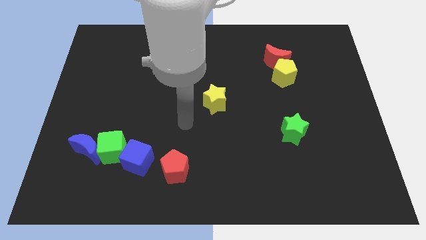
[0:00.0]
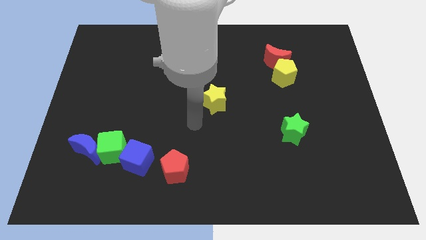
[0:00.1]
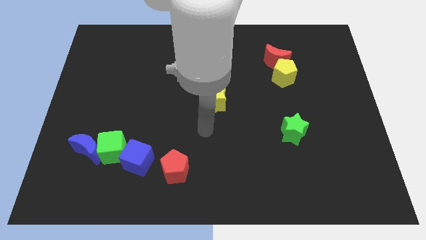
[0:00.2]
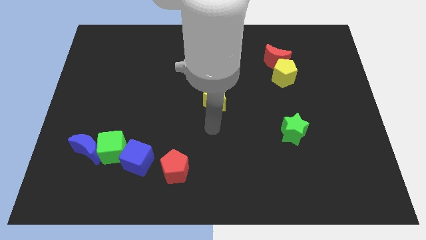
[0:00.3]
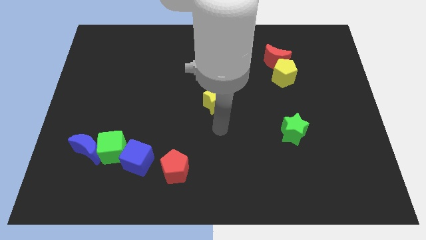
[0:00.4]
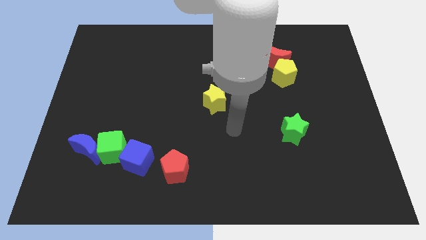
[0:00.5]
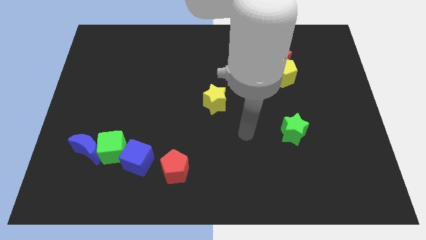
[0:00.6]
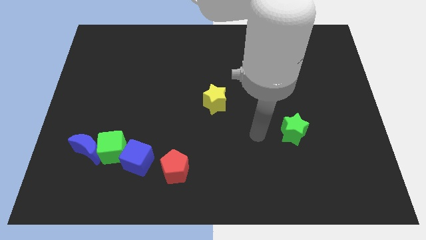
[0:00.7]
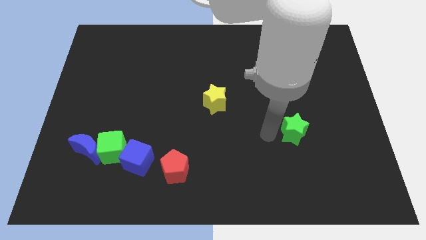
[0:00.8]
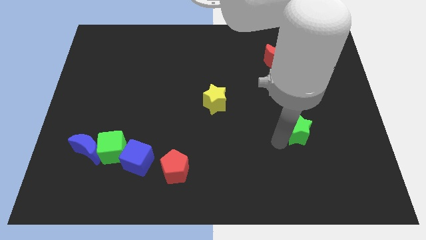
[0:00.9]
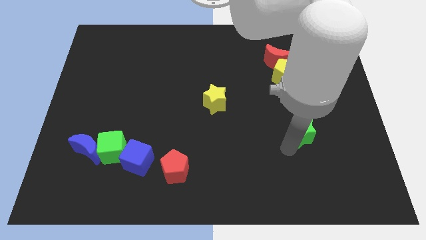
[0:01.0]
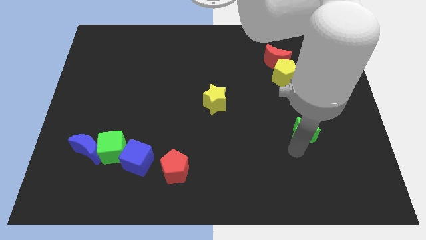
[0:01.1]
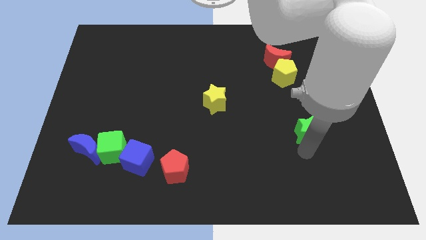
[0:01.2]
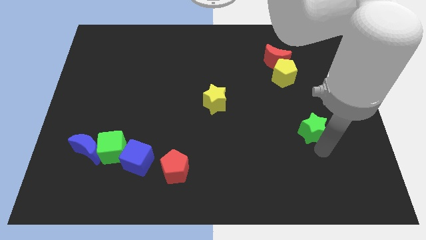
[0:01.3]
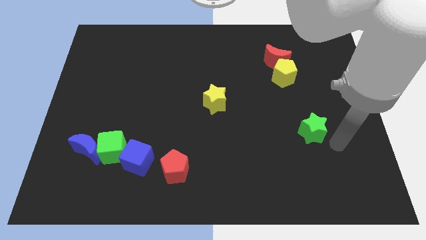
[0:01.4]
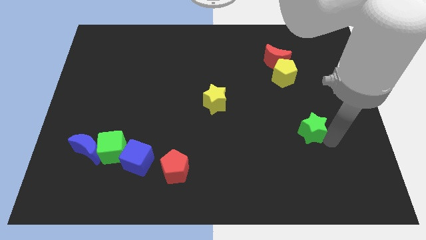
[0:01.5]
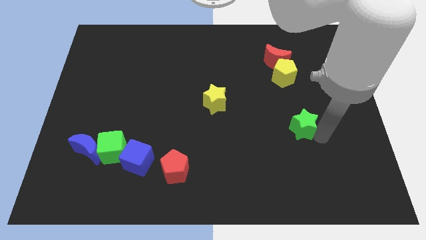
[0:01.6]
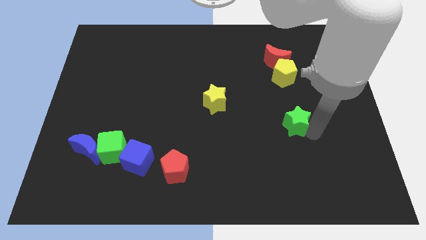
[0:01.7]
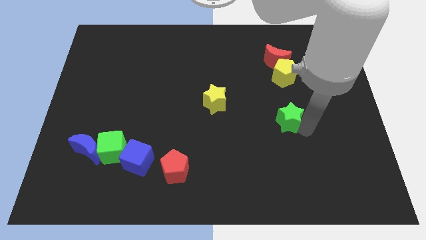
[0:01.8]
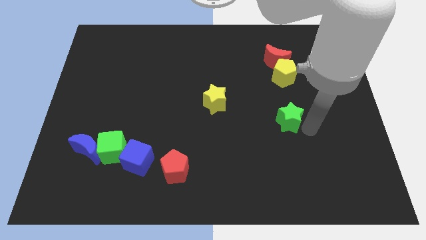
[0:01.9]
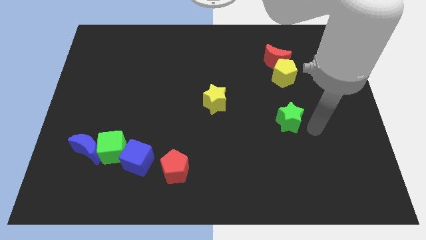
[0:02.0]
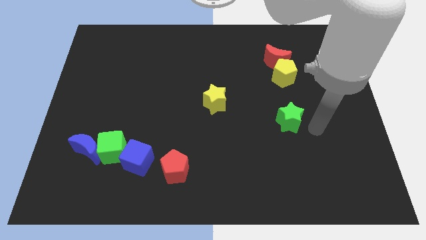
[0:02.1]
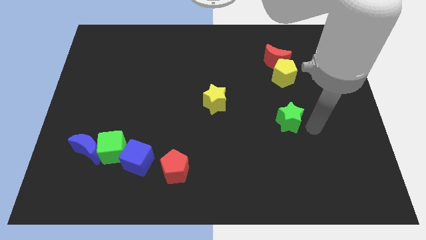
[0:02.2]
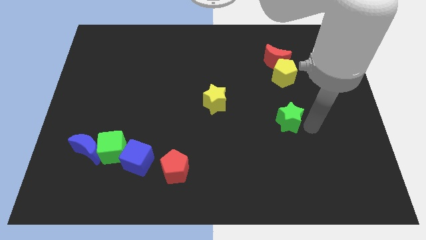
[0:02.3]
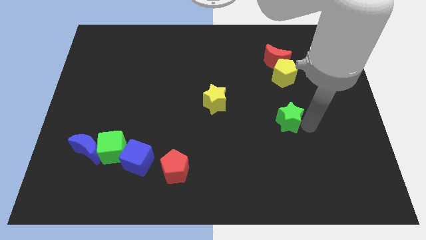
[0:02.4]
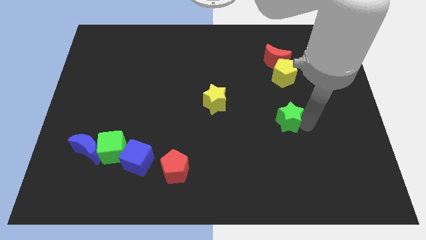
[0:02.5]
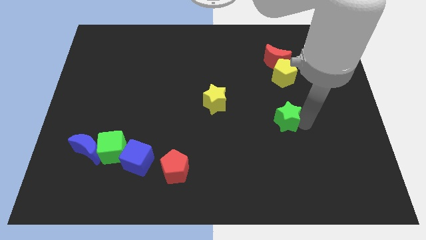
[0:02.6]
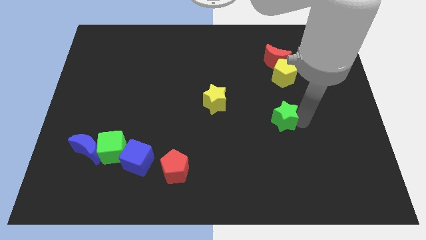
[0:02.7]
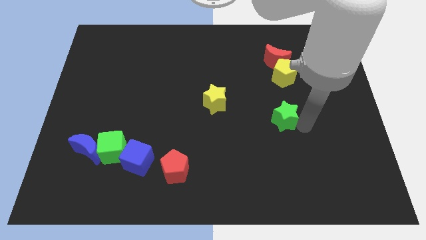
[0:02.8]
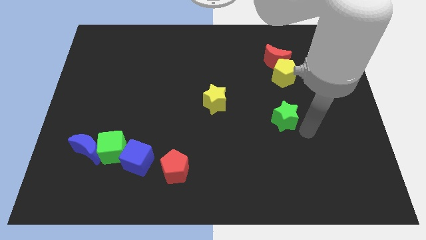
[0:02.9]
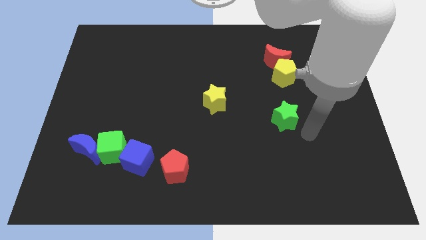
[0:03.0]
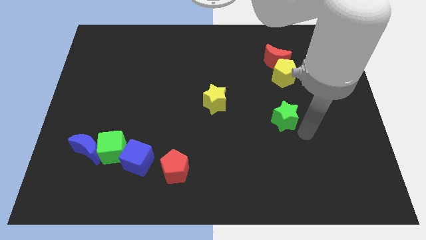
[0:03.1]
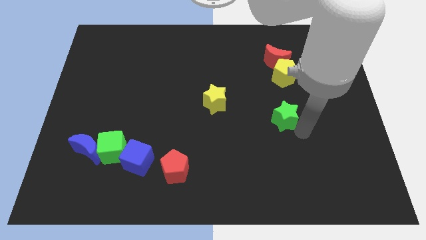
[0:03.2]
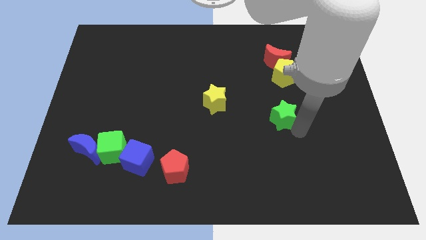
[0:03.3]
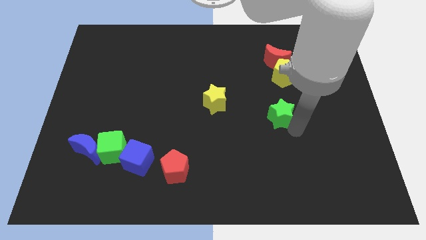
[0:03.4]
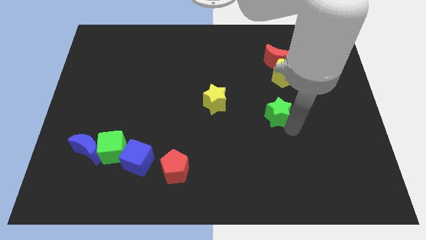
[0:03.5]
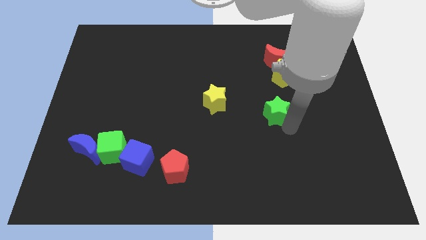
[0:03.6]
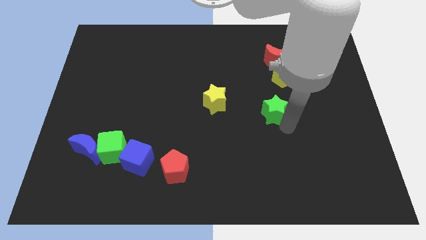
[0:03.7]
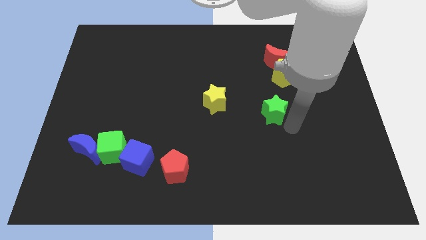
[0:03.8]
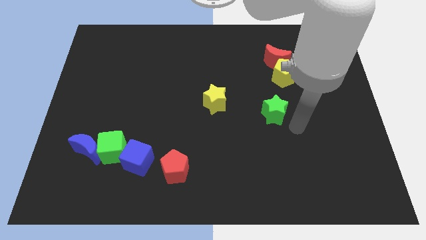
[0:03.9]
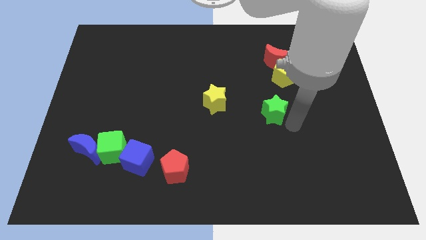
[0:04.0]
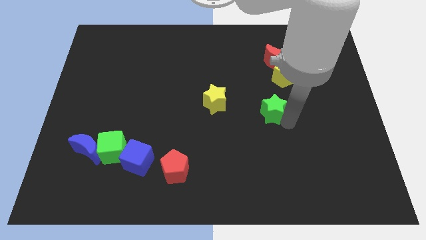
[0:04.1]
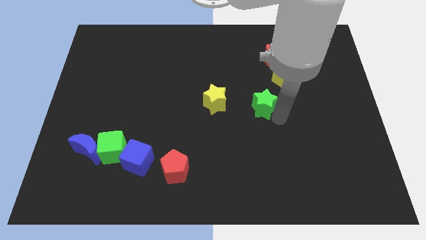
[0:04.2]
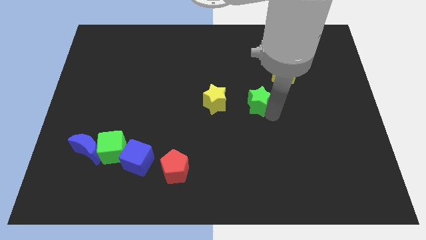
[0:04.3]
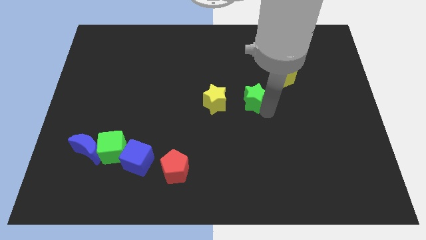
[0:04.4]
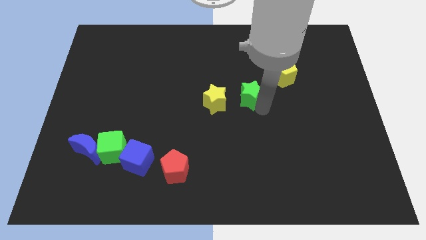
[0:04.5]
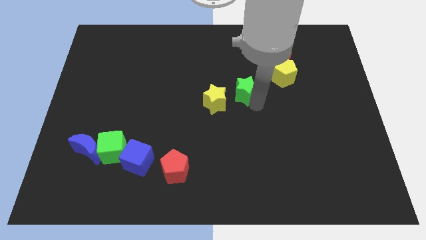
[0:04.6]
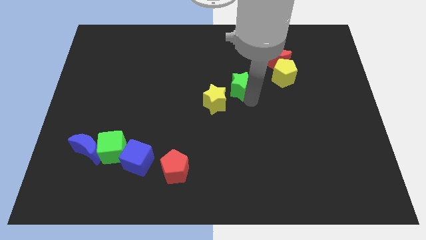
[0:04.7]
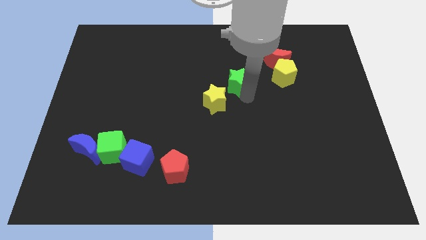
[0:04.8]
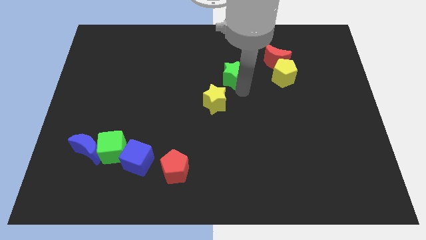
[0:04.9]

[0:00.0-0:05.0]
push the green star upwards and then to the left

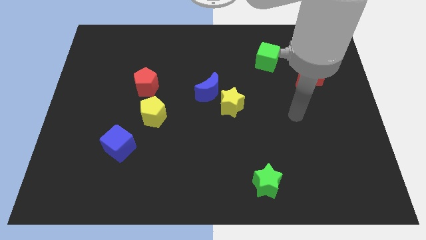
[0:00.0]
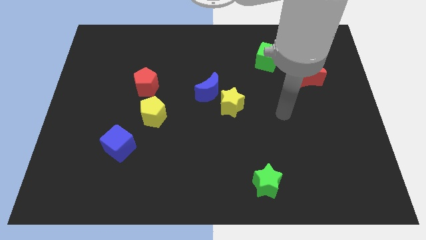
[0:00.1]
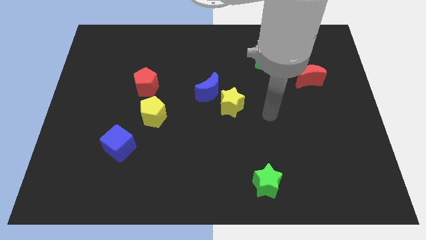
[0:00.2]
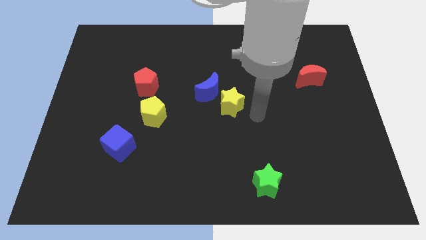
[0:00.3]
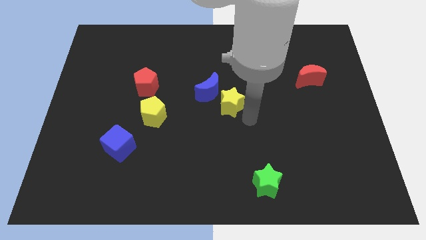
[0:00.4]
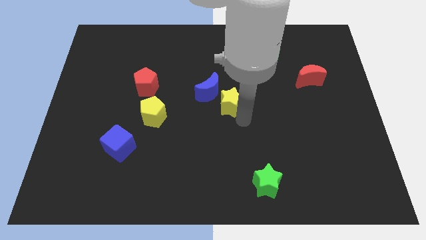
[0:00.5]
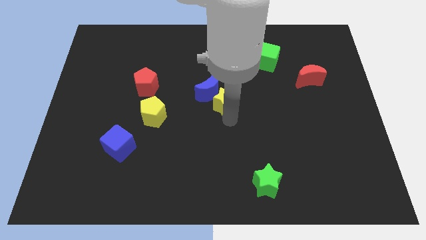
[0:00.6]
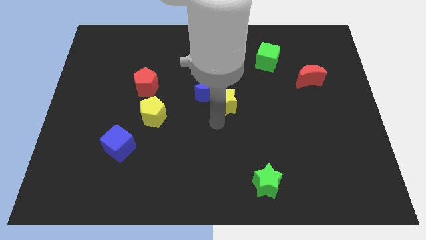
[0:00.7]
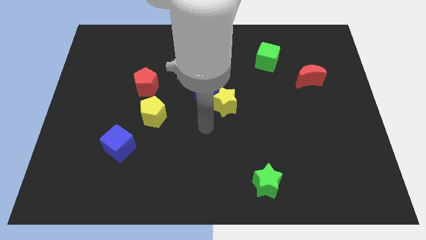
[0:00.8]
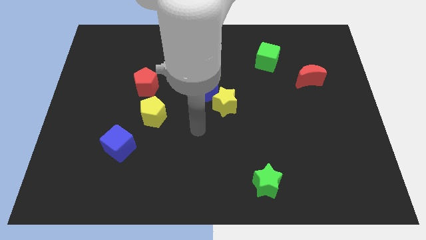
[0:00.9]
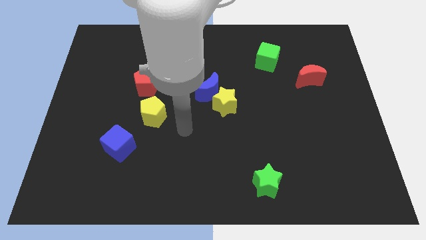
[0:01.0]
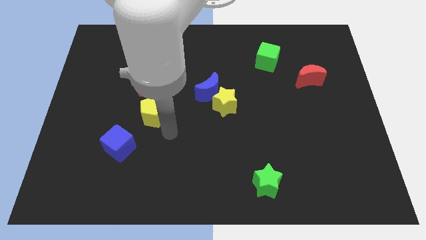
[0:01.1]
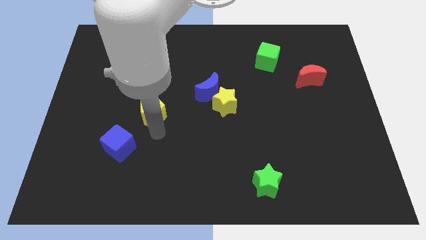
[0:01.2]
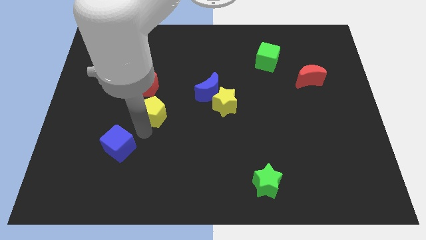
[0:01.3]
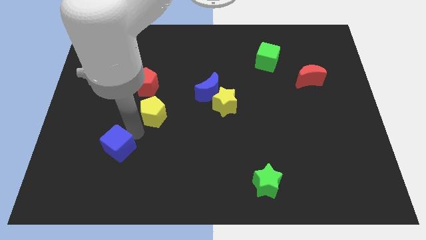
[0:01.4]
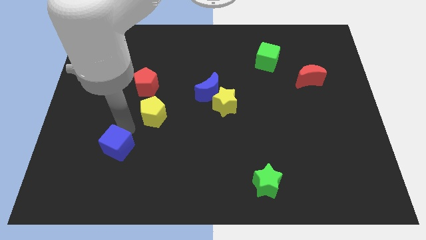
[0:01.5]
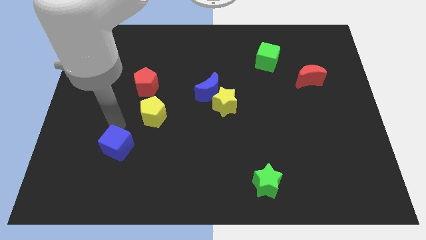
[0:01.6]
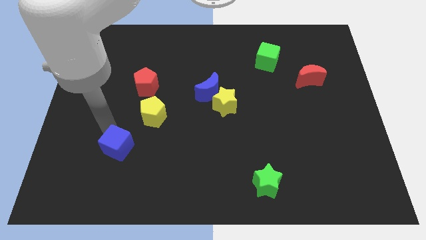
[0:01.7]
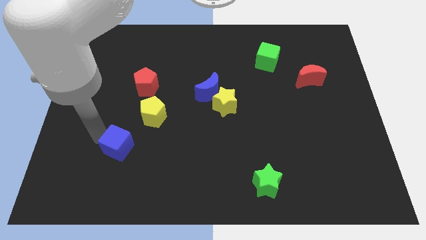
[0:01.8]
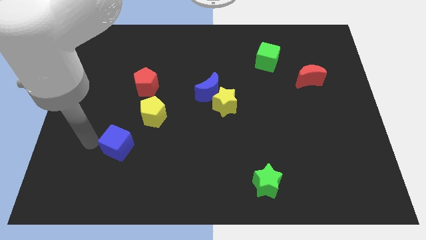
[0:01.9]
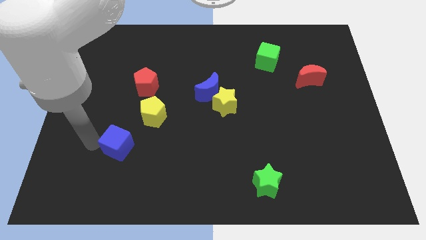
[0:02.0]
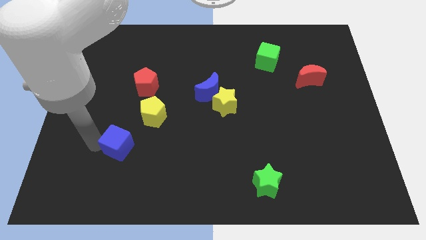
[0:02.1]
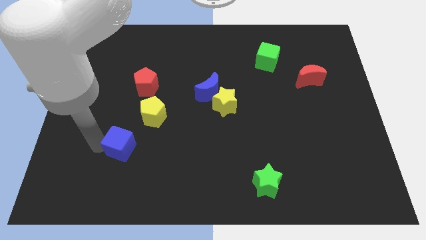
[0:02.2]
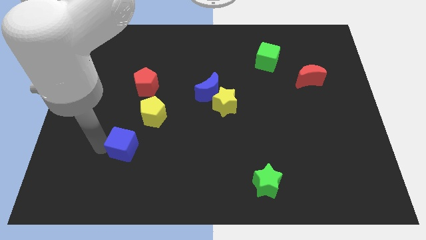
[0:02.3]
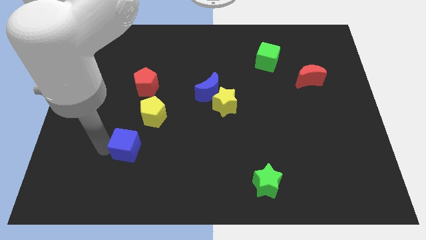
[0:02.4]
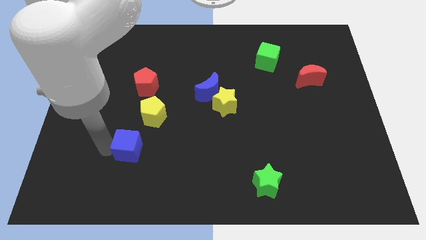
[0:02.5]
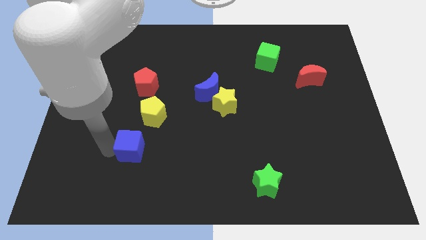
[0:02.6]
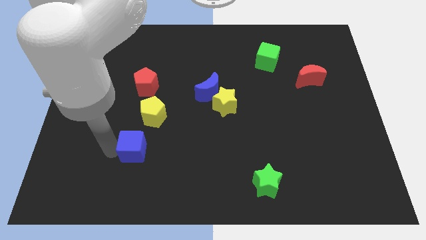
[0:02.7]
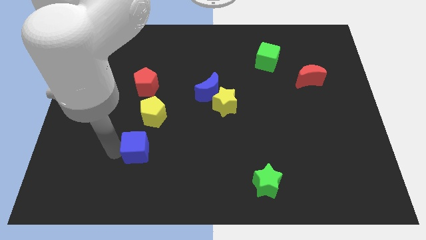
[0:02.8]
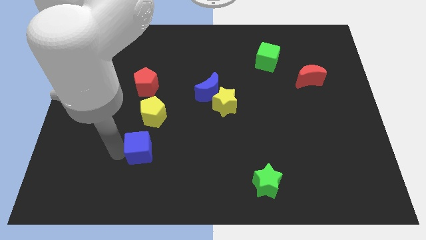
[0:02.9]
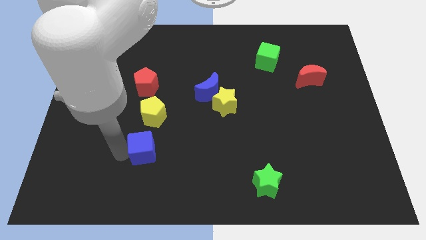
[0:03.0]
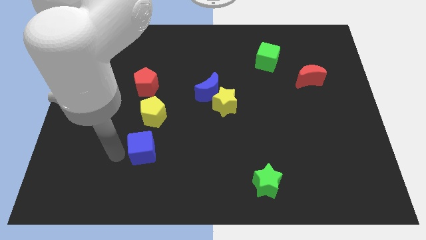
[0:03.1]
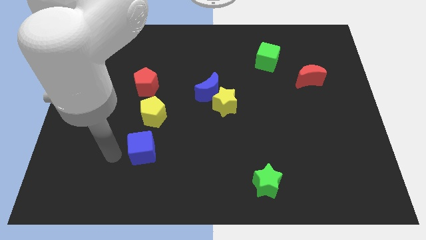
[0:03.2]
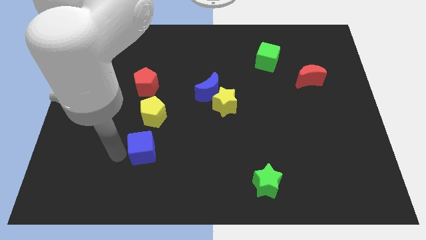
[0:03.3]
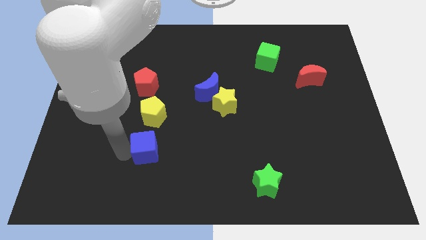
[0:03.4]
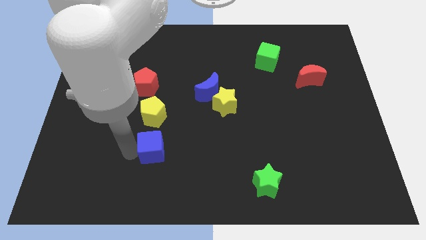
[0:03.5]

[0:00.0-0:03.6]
slightly slide the blue cube to the right
